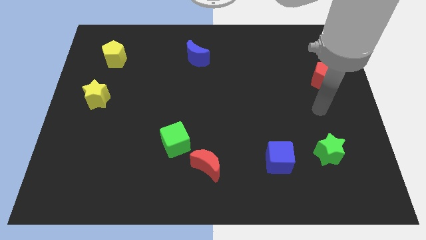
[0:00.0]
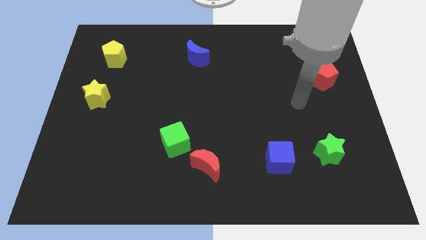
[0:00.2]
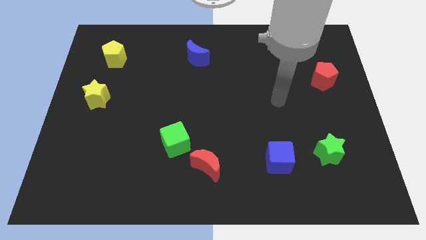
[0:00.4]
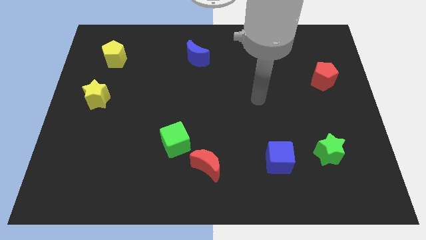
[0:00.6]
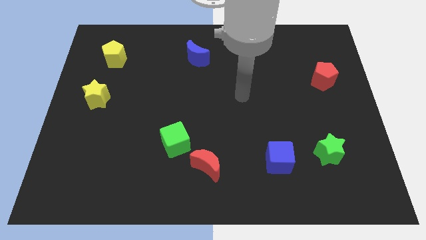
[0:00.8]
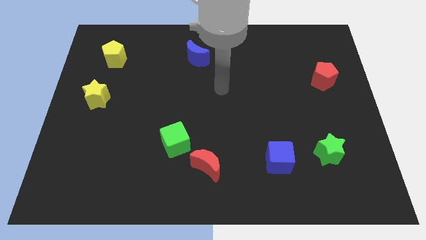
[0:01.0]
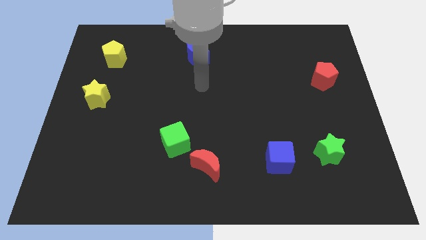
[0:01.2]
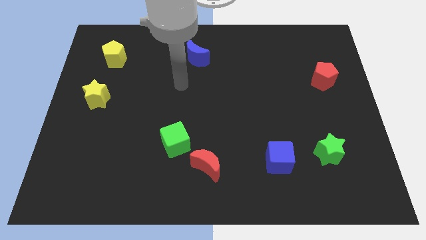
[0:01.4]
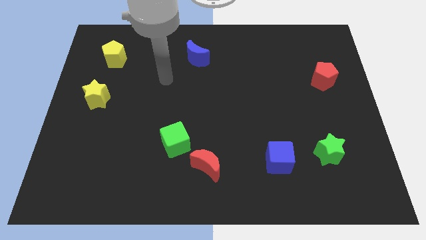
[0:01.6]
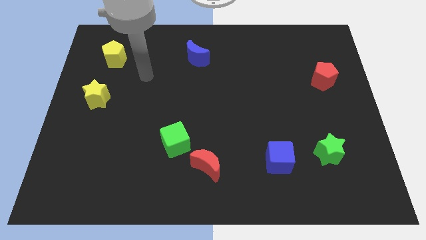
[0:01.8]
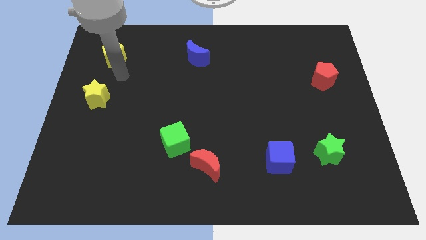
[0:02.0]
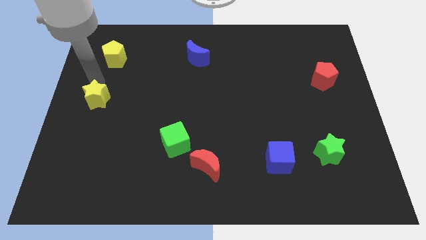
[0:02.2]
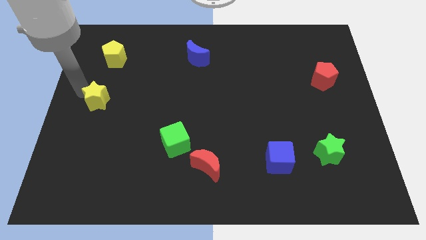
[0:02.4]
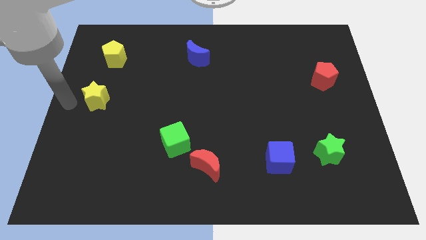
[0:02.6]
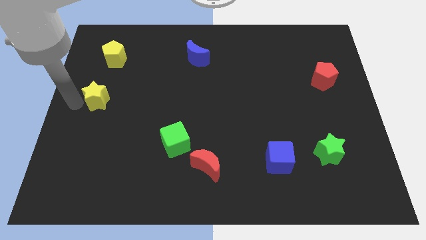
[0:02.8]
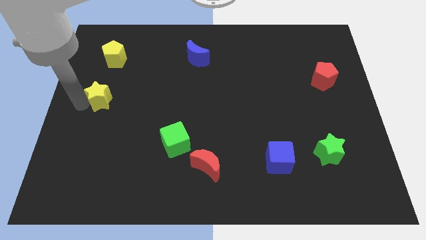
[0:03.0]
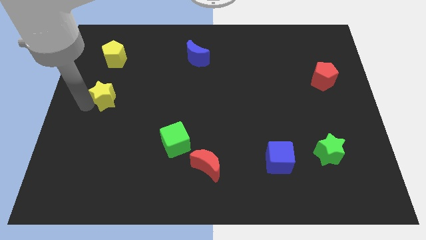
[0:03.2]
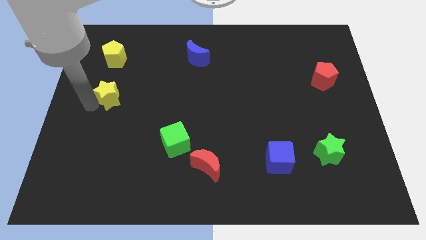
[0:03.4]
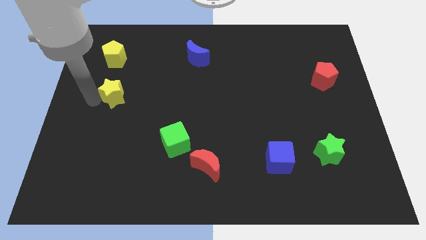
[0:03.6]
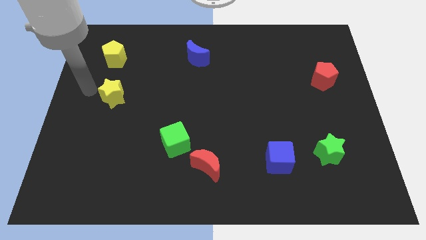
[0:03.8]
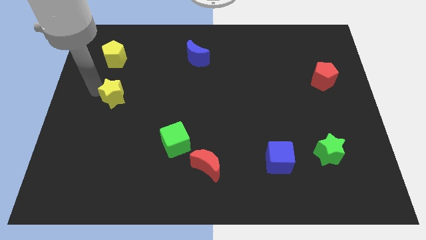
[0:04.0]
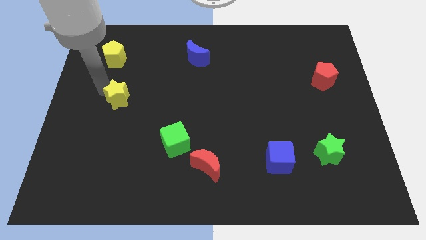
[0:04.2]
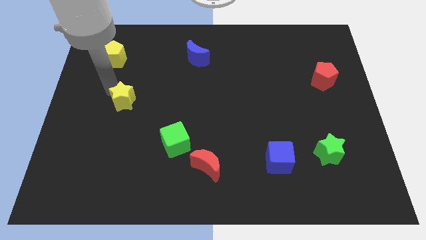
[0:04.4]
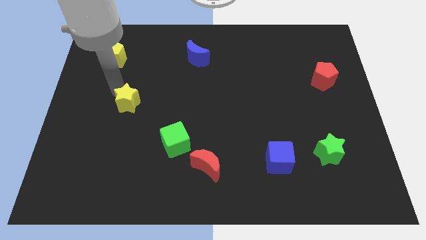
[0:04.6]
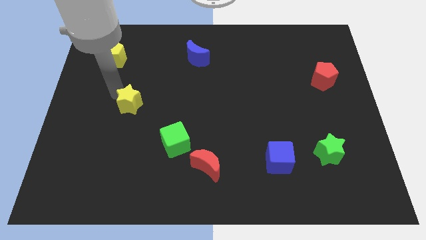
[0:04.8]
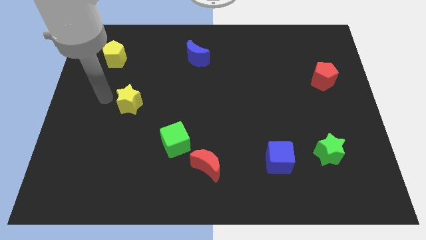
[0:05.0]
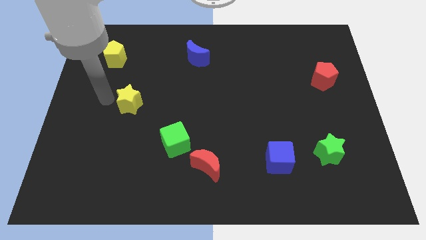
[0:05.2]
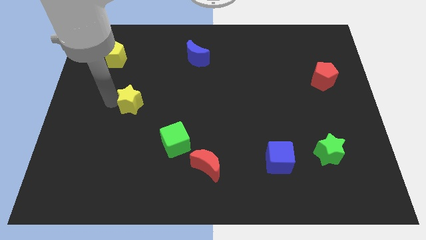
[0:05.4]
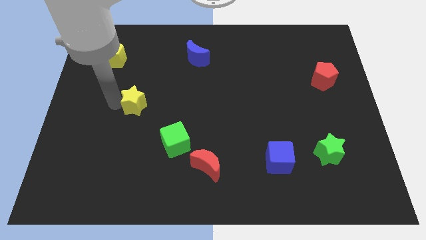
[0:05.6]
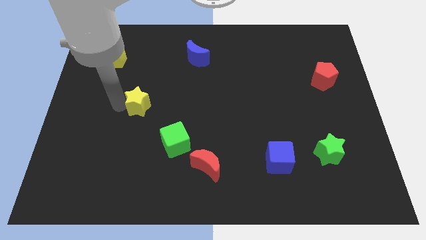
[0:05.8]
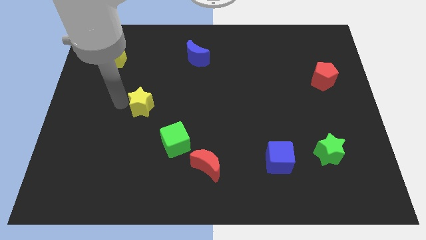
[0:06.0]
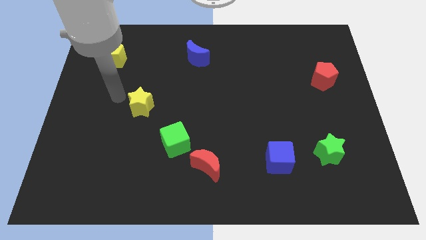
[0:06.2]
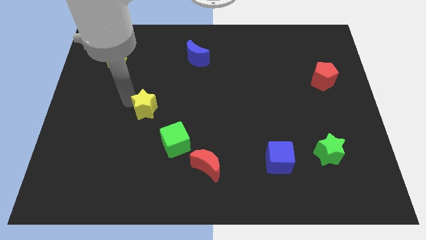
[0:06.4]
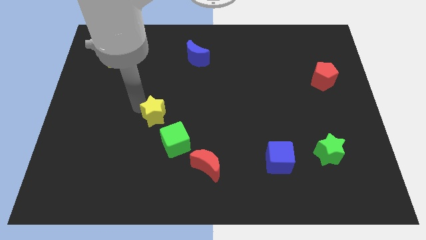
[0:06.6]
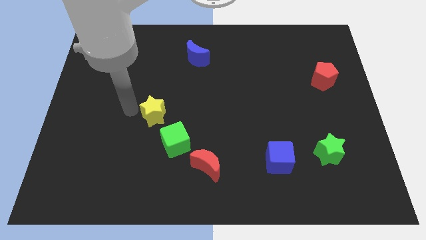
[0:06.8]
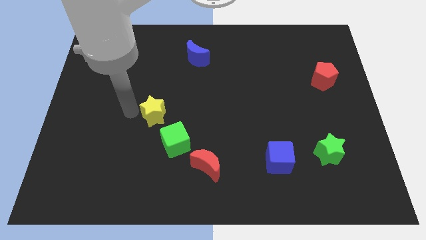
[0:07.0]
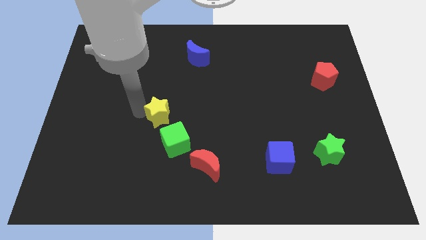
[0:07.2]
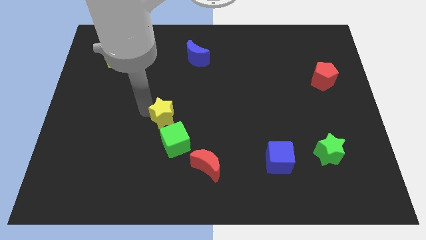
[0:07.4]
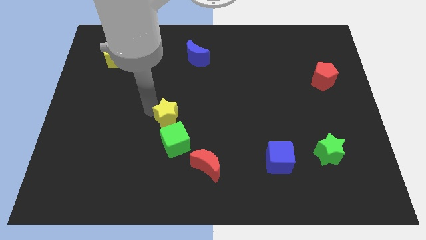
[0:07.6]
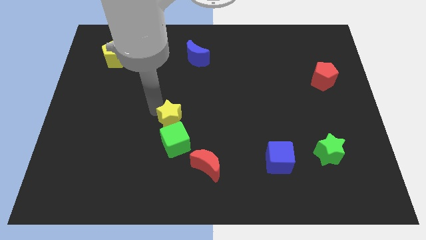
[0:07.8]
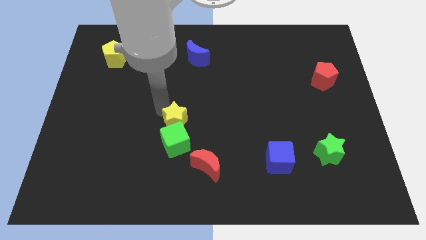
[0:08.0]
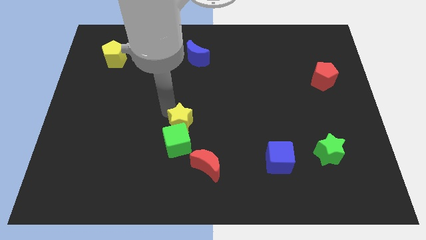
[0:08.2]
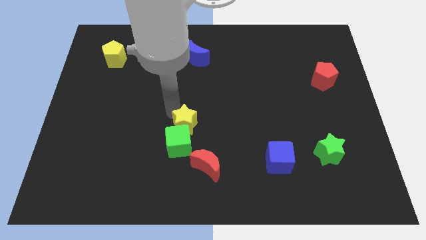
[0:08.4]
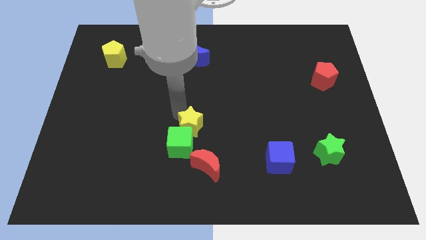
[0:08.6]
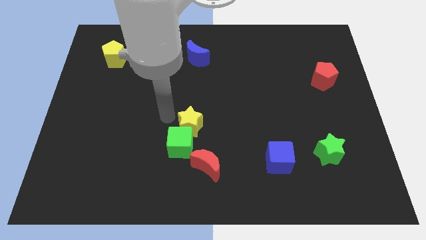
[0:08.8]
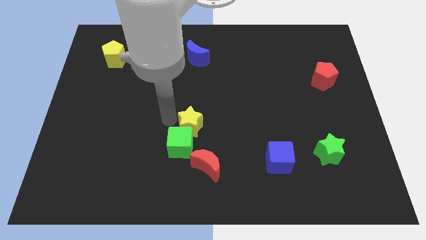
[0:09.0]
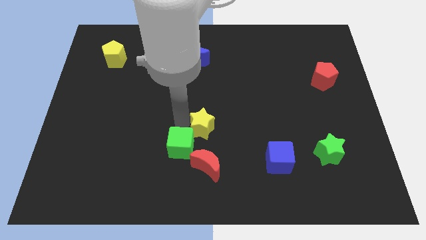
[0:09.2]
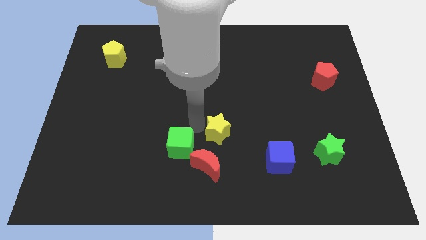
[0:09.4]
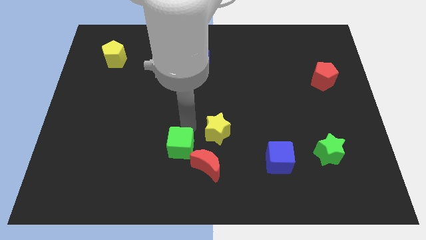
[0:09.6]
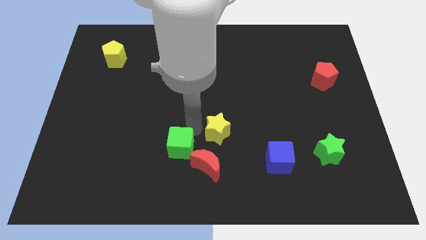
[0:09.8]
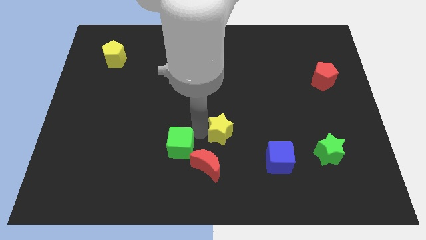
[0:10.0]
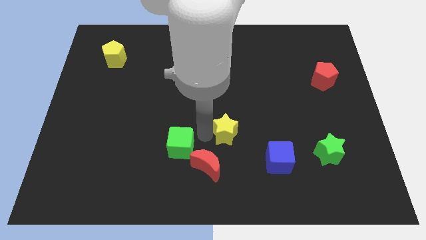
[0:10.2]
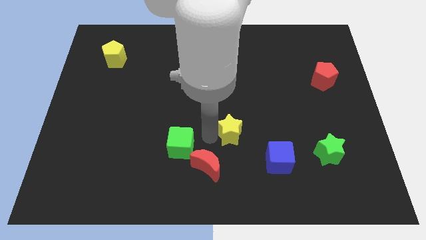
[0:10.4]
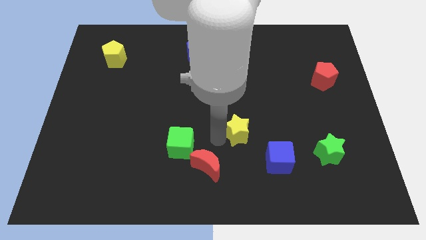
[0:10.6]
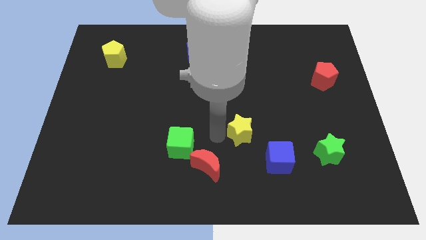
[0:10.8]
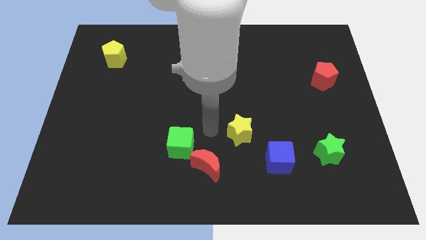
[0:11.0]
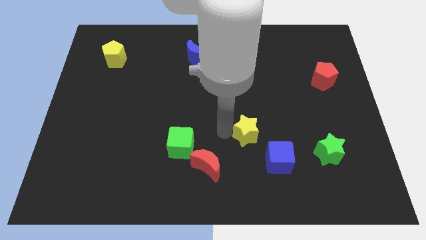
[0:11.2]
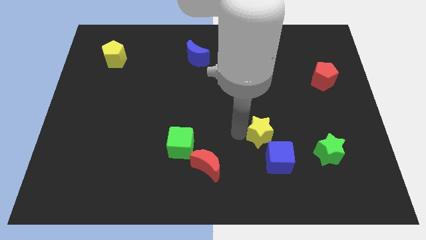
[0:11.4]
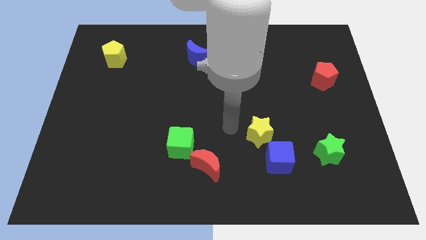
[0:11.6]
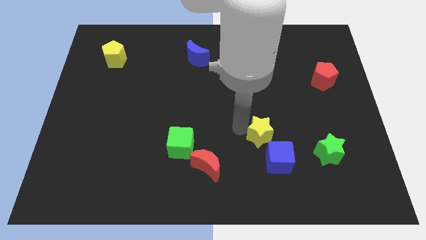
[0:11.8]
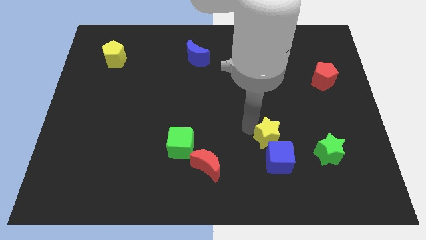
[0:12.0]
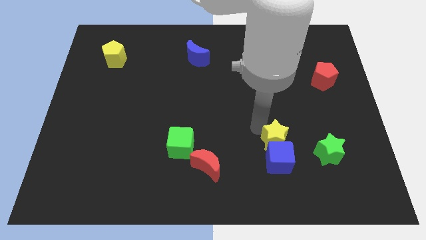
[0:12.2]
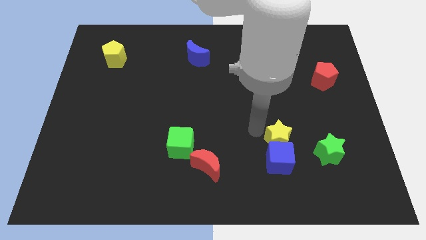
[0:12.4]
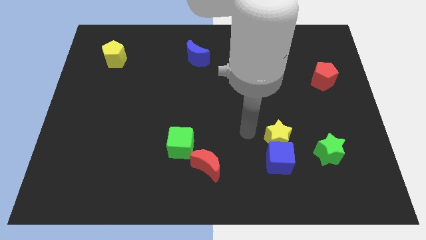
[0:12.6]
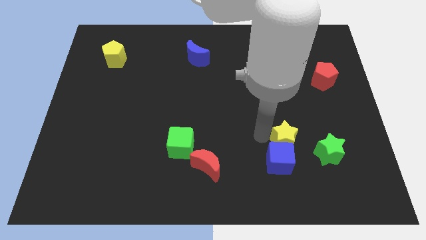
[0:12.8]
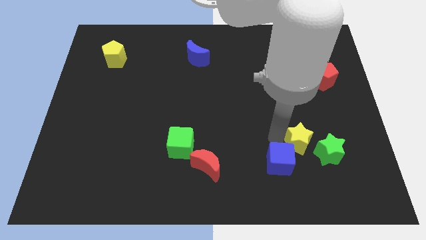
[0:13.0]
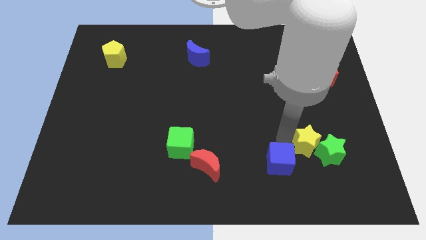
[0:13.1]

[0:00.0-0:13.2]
put the yellow star to the green star

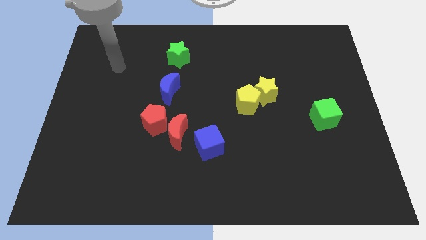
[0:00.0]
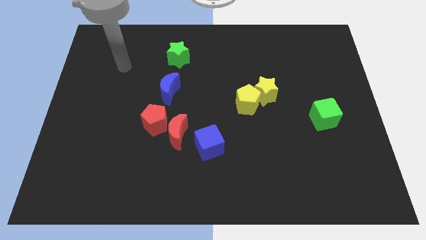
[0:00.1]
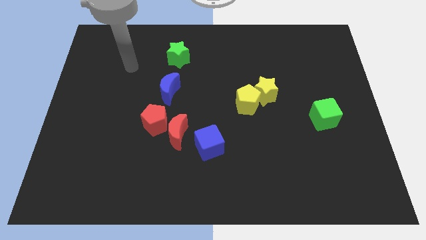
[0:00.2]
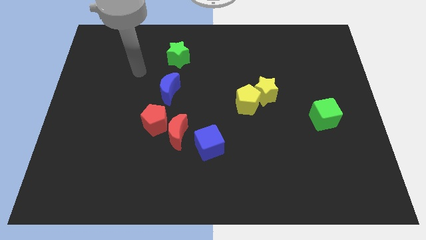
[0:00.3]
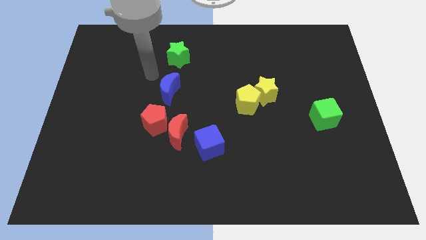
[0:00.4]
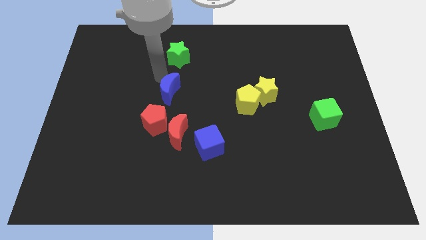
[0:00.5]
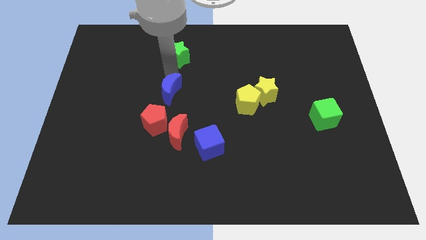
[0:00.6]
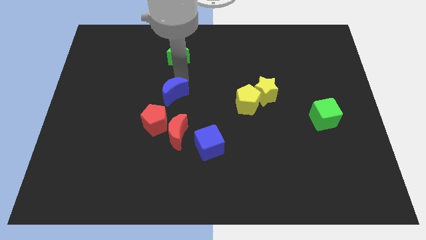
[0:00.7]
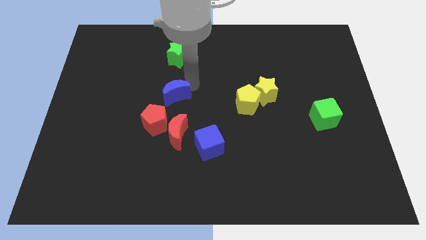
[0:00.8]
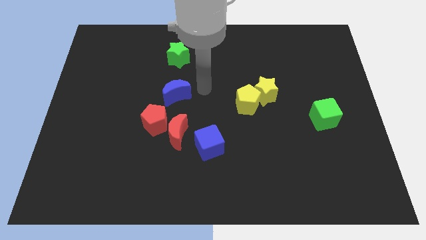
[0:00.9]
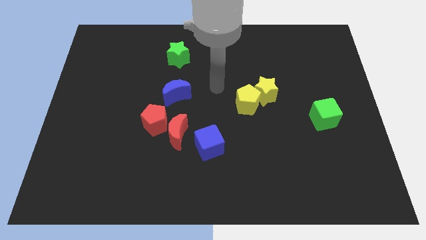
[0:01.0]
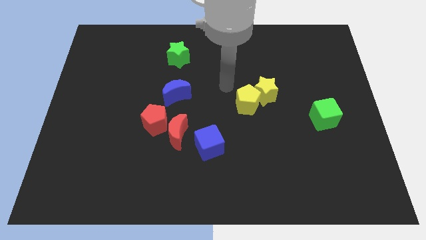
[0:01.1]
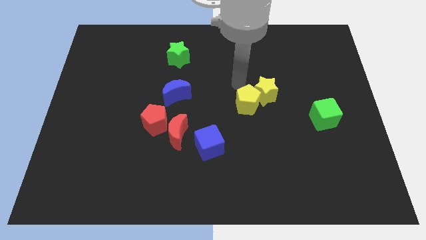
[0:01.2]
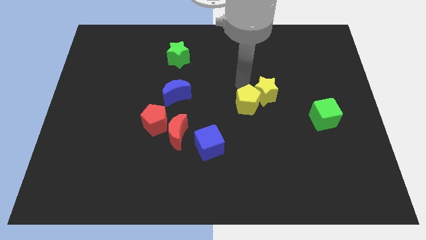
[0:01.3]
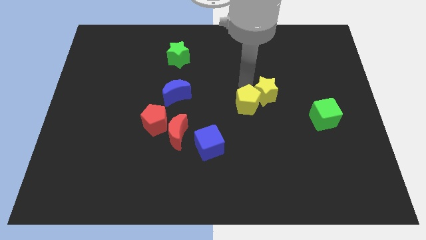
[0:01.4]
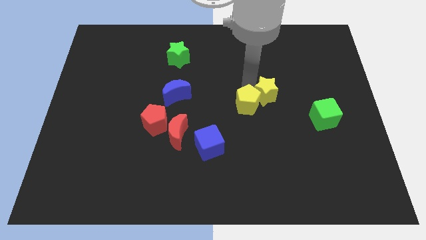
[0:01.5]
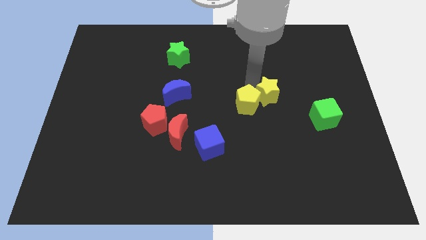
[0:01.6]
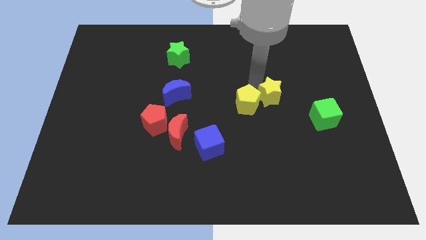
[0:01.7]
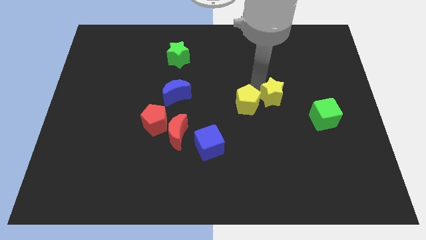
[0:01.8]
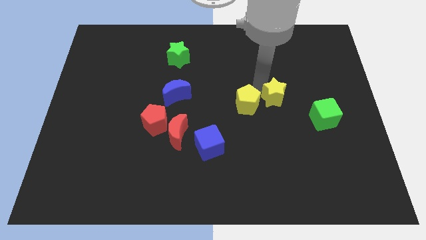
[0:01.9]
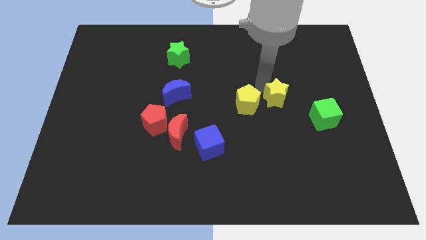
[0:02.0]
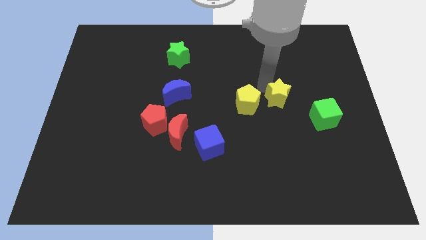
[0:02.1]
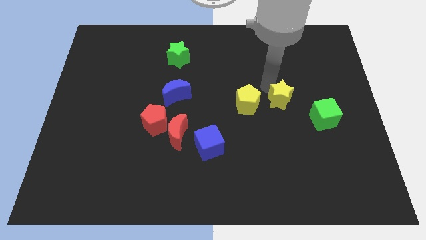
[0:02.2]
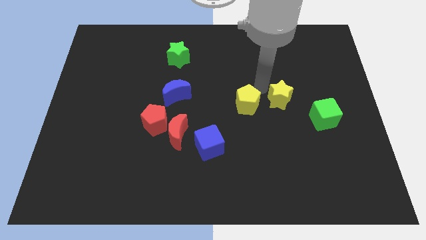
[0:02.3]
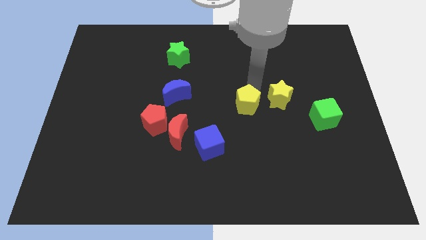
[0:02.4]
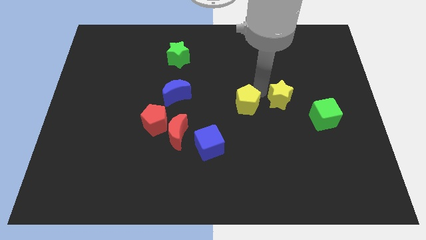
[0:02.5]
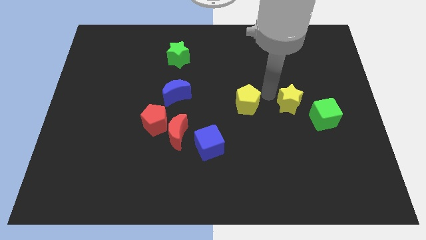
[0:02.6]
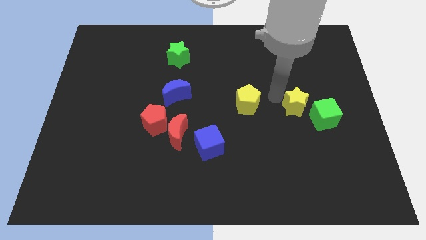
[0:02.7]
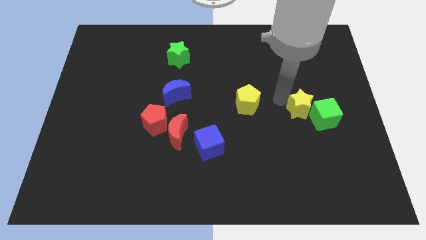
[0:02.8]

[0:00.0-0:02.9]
put the yellow star close to the green cube
